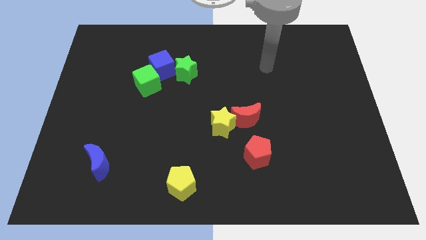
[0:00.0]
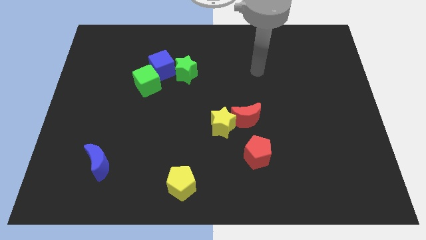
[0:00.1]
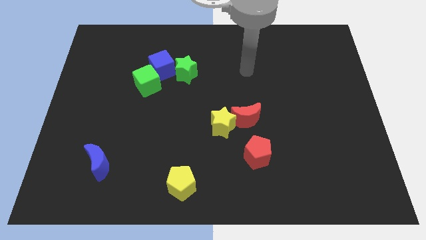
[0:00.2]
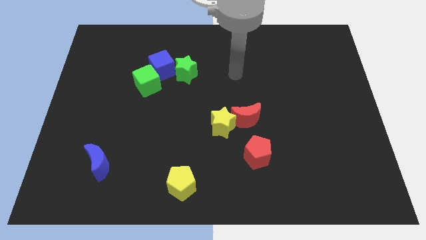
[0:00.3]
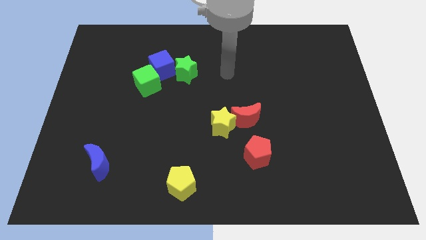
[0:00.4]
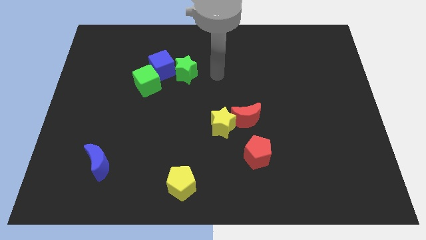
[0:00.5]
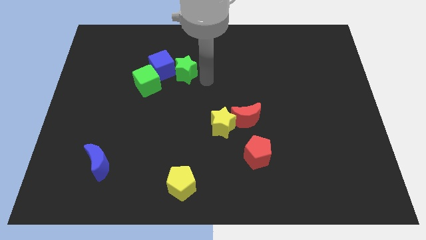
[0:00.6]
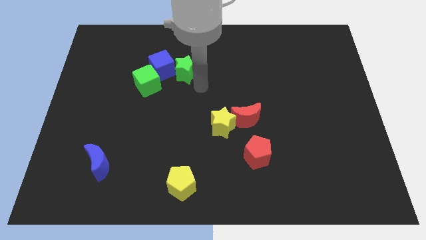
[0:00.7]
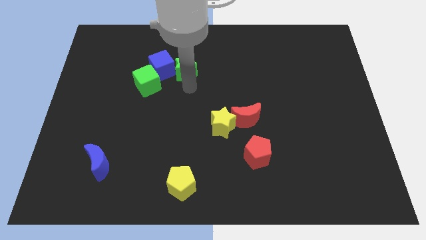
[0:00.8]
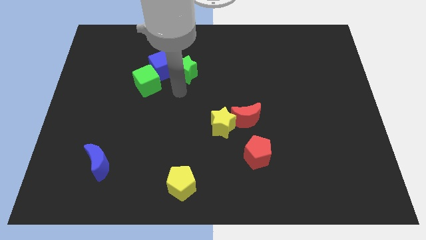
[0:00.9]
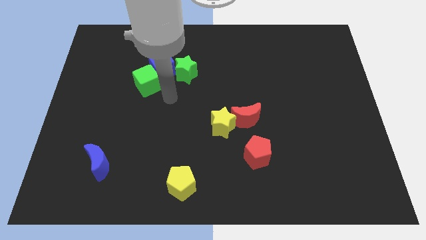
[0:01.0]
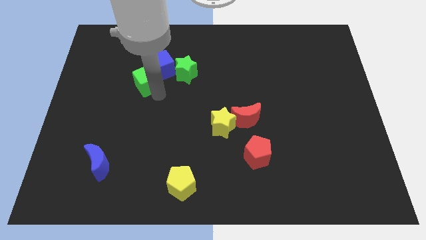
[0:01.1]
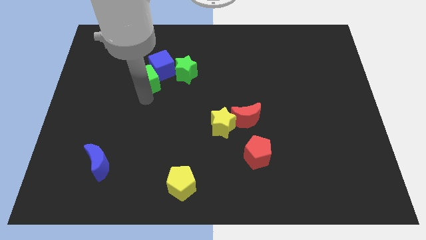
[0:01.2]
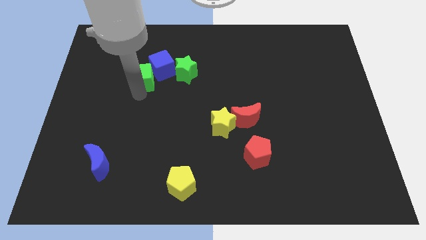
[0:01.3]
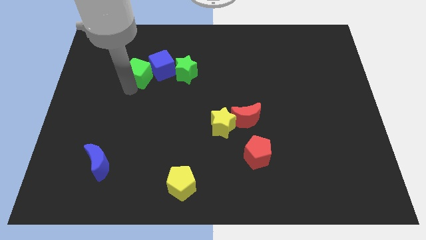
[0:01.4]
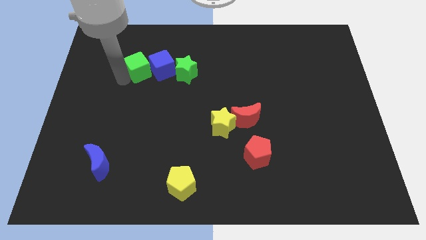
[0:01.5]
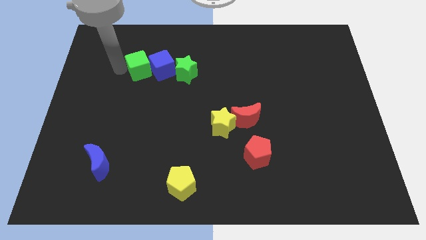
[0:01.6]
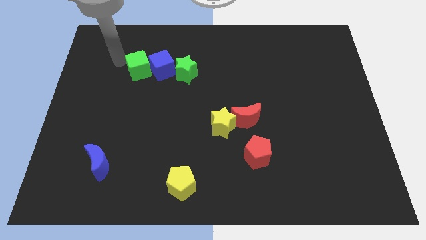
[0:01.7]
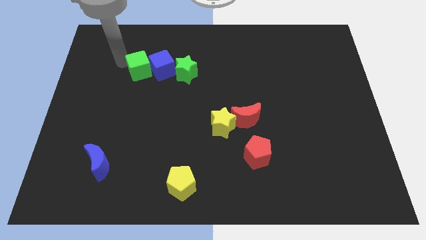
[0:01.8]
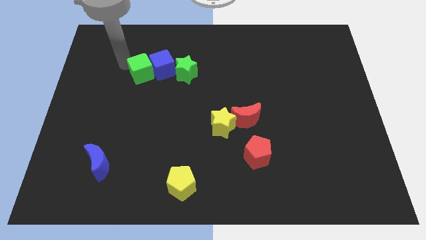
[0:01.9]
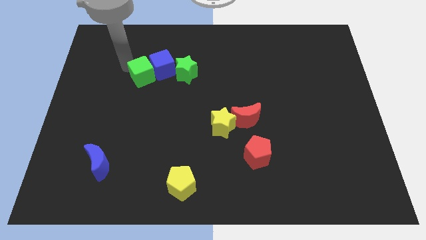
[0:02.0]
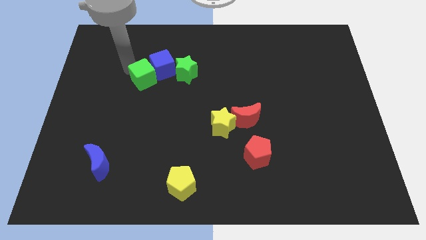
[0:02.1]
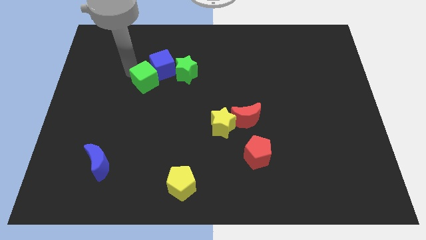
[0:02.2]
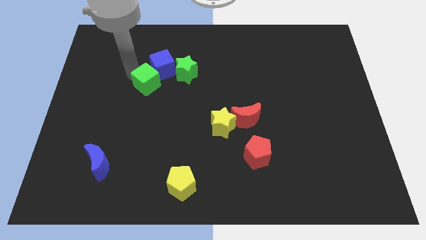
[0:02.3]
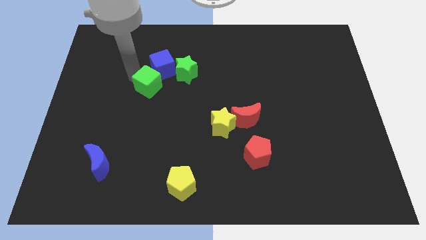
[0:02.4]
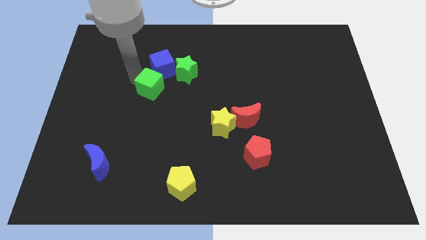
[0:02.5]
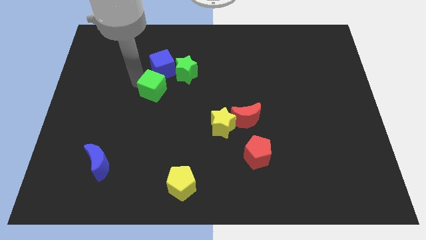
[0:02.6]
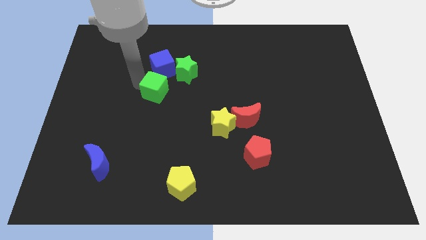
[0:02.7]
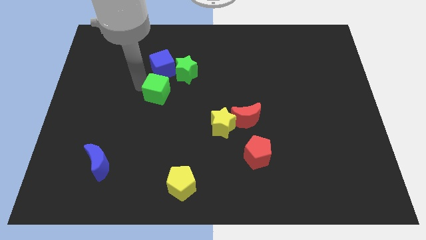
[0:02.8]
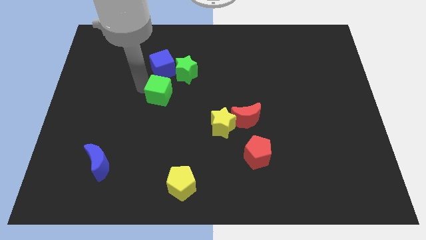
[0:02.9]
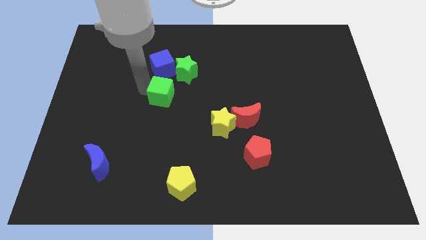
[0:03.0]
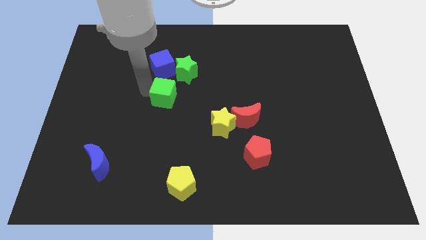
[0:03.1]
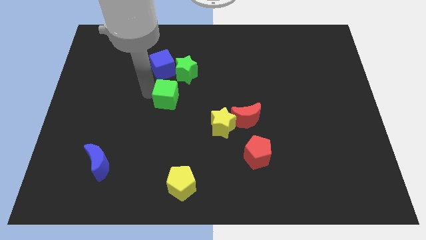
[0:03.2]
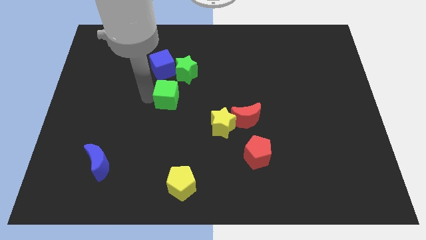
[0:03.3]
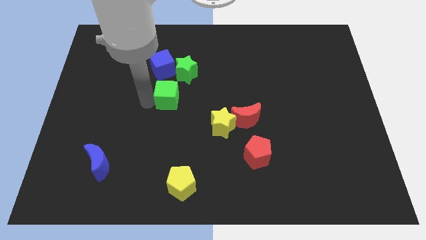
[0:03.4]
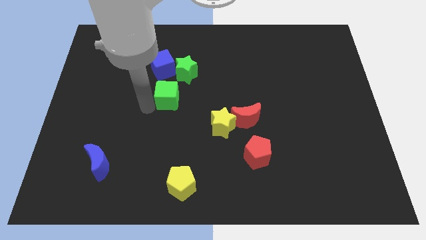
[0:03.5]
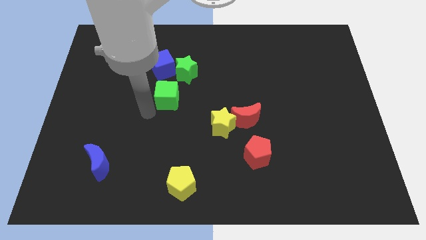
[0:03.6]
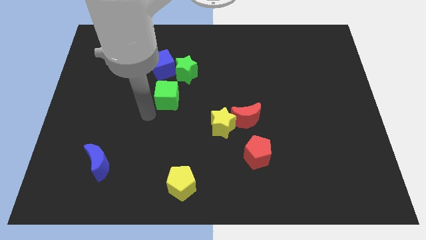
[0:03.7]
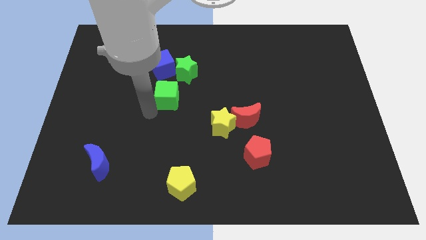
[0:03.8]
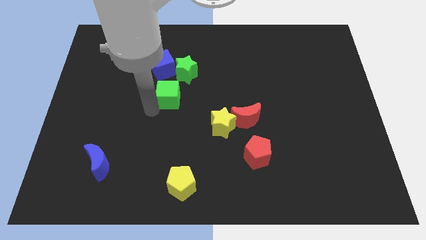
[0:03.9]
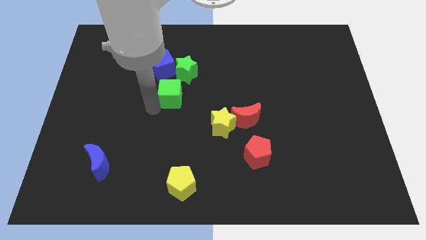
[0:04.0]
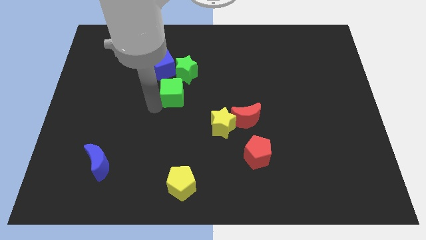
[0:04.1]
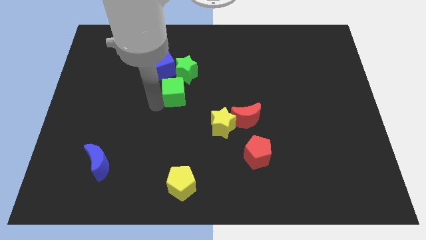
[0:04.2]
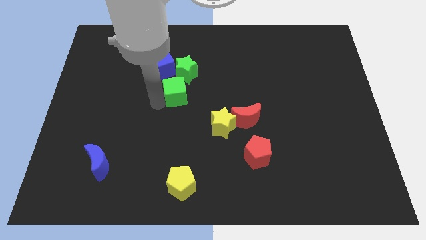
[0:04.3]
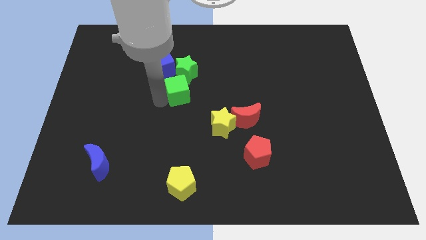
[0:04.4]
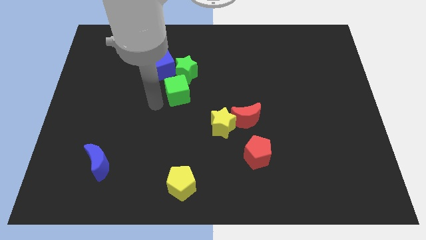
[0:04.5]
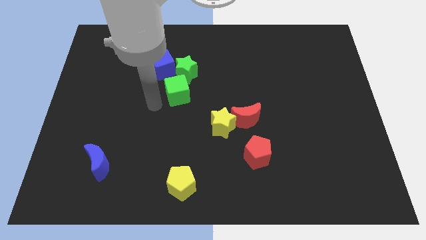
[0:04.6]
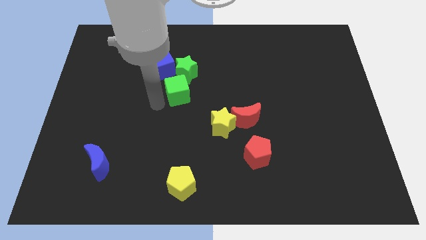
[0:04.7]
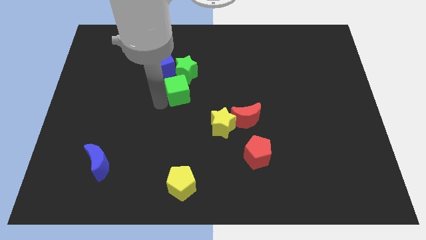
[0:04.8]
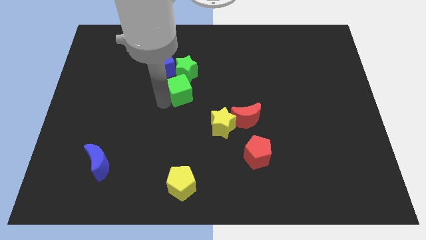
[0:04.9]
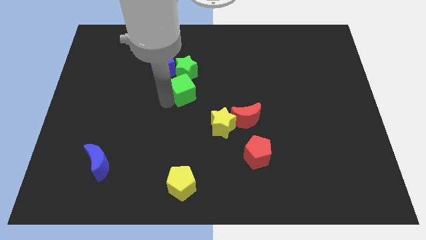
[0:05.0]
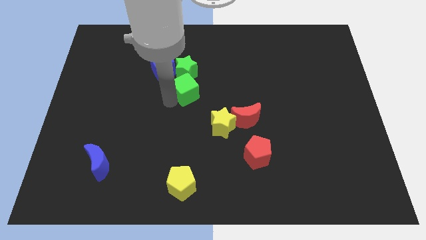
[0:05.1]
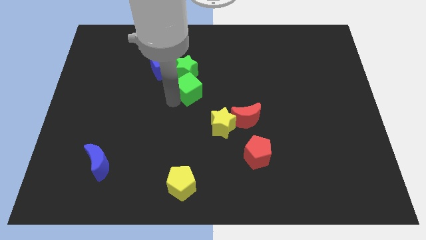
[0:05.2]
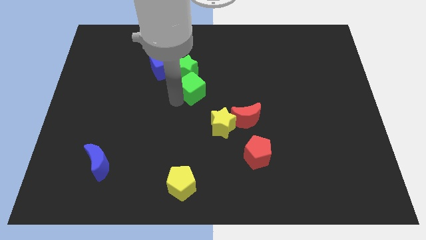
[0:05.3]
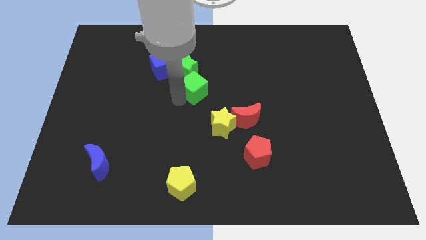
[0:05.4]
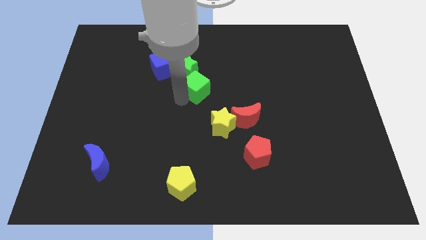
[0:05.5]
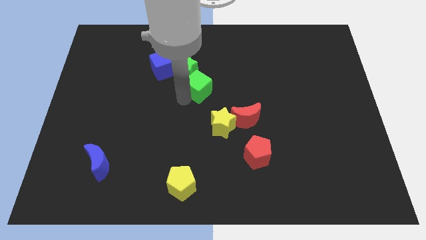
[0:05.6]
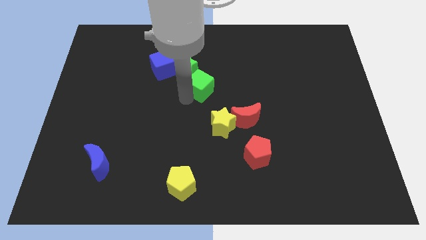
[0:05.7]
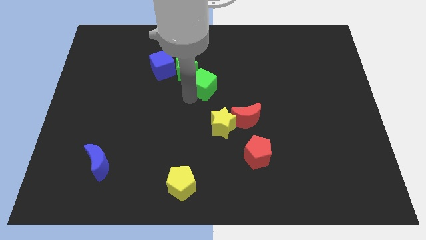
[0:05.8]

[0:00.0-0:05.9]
move the green cube to the right of the green star

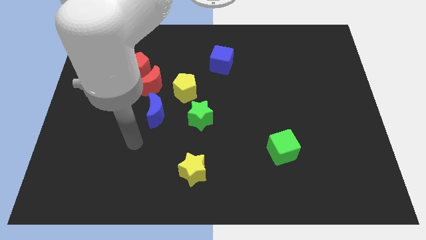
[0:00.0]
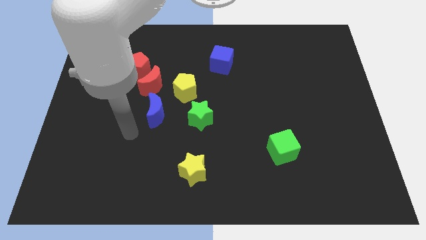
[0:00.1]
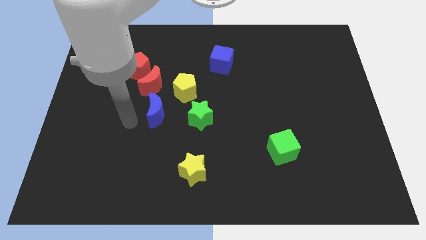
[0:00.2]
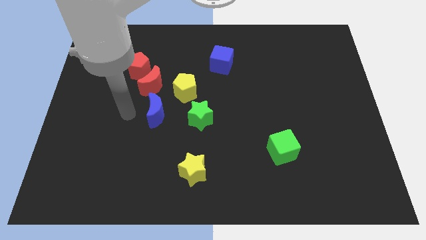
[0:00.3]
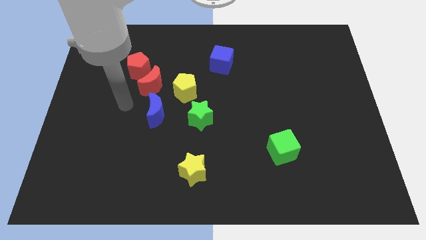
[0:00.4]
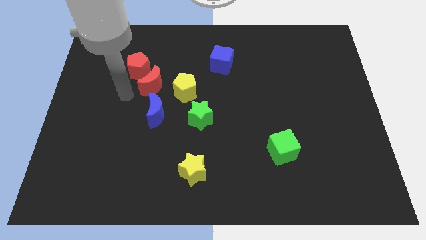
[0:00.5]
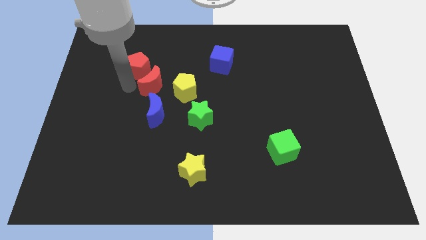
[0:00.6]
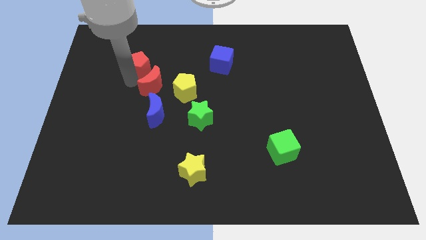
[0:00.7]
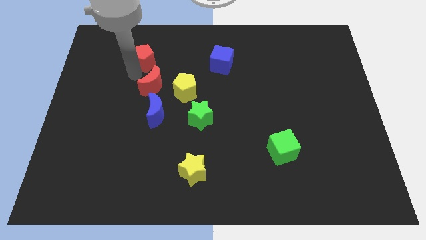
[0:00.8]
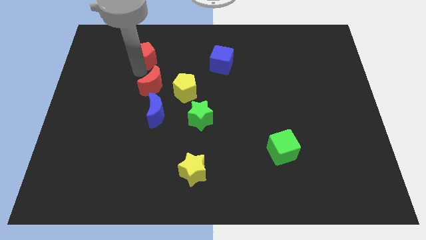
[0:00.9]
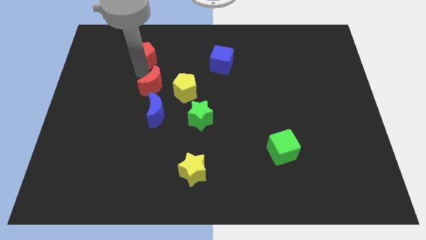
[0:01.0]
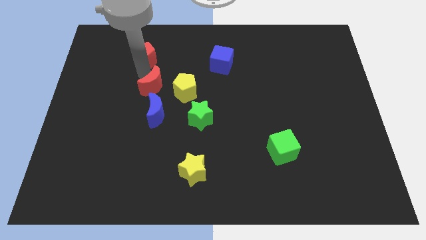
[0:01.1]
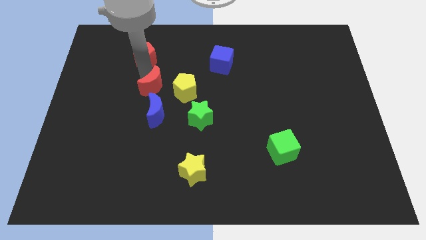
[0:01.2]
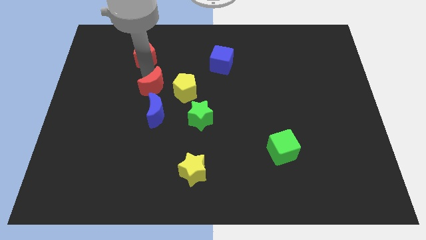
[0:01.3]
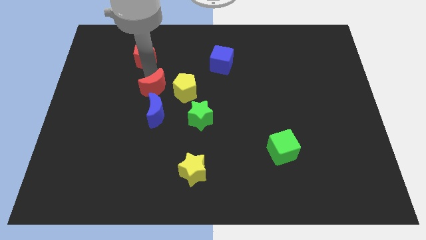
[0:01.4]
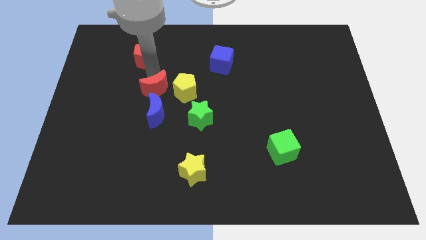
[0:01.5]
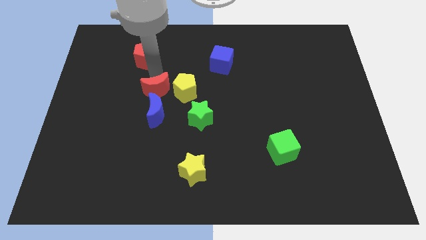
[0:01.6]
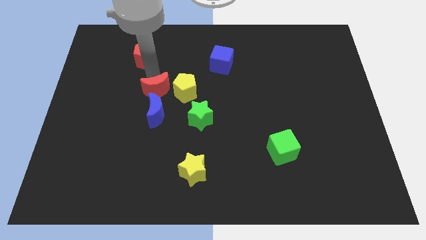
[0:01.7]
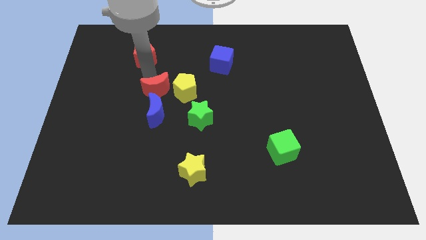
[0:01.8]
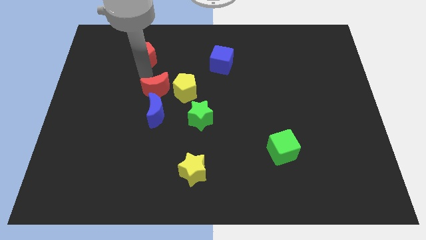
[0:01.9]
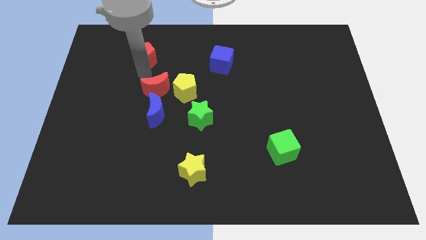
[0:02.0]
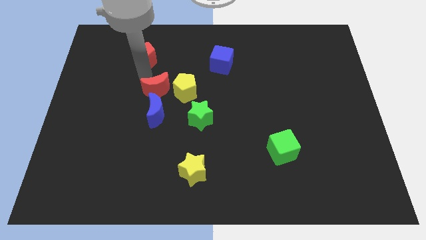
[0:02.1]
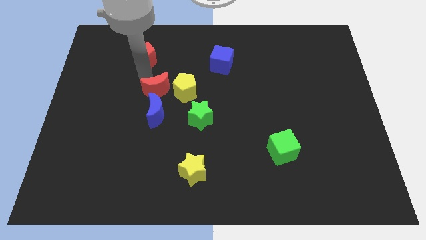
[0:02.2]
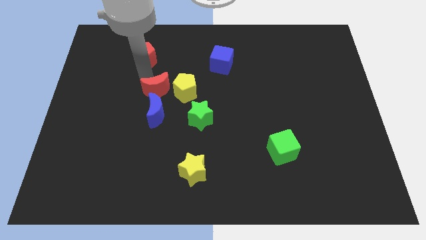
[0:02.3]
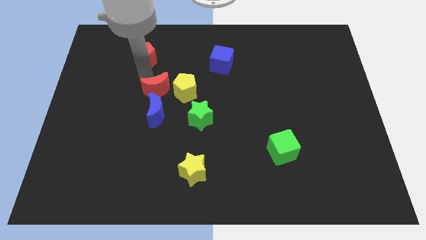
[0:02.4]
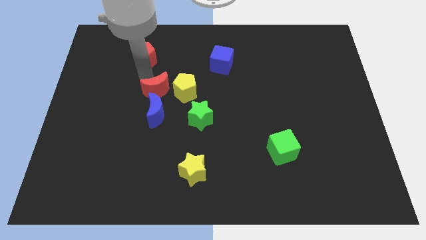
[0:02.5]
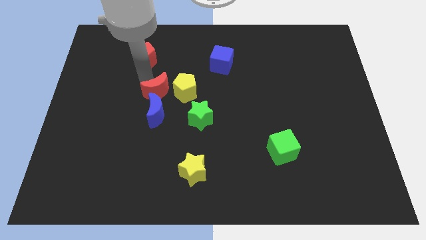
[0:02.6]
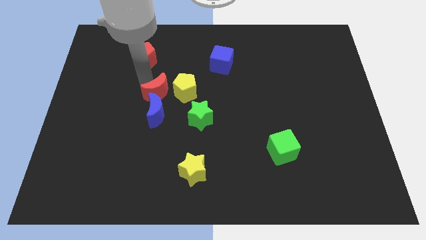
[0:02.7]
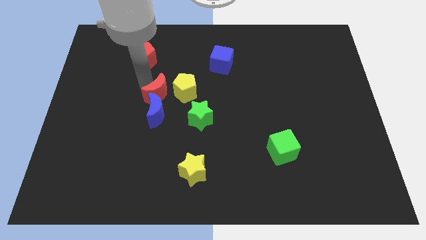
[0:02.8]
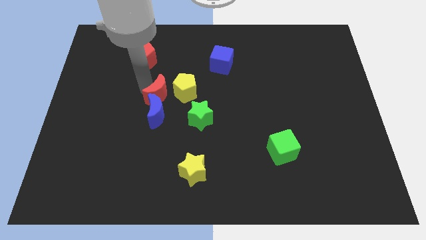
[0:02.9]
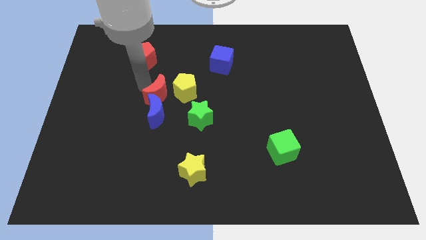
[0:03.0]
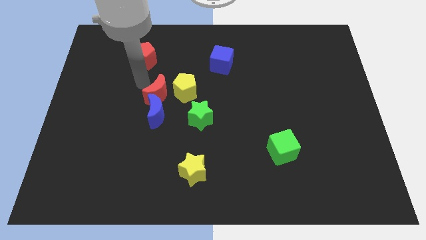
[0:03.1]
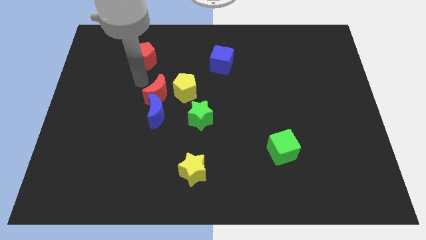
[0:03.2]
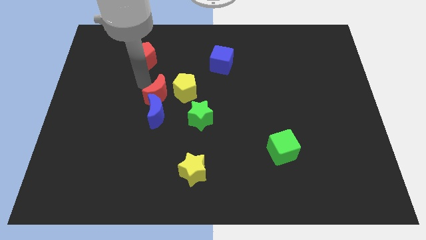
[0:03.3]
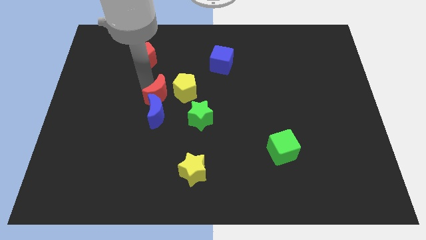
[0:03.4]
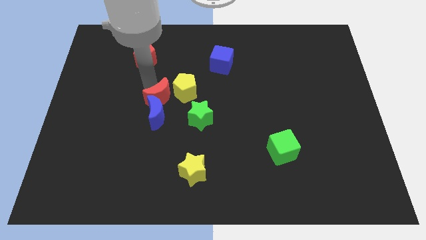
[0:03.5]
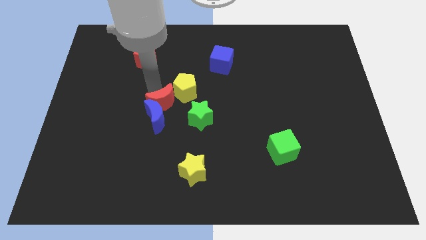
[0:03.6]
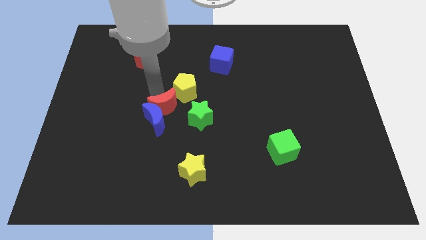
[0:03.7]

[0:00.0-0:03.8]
put the red moon to the bottom side of the yellow pentagon
